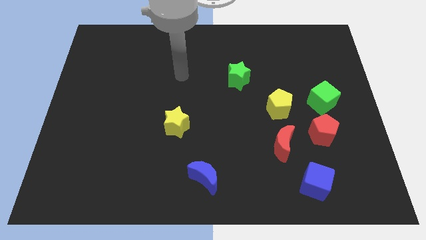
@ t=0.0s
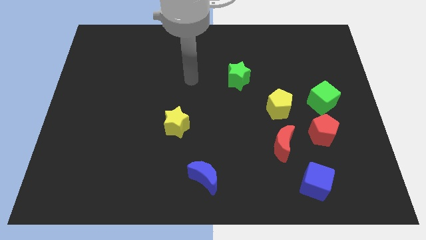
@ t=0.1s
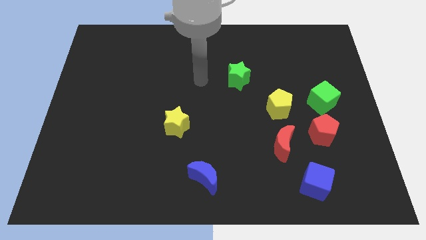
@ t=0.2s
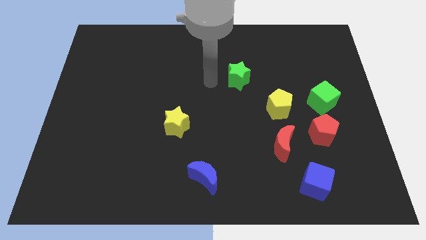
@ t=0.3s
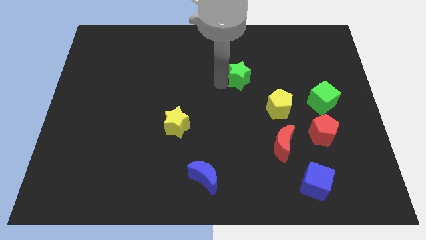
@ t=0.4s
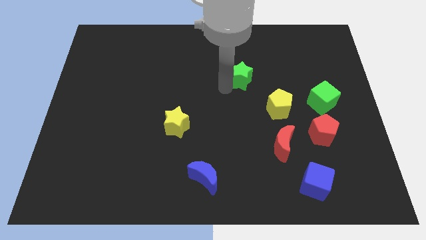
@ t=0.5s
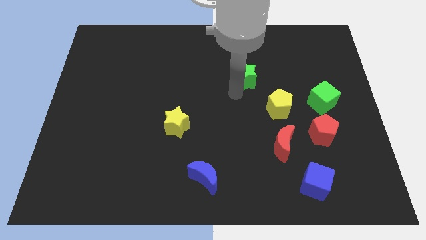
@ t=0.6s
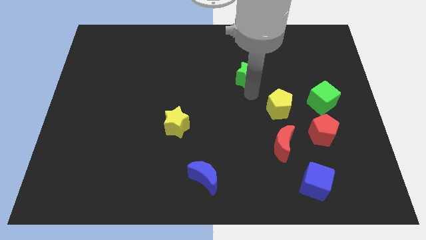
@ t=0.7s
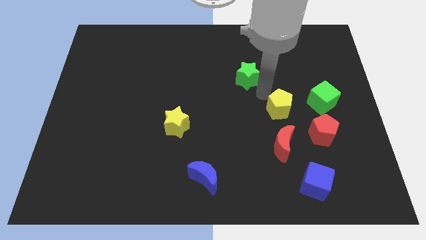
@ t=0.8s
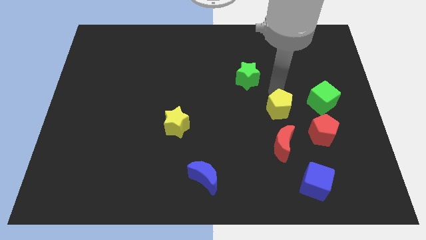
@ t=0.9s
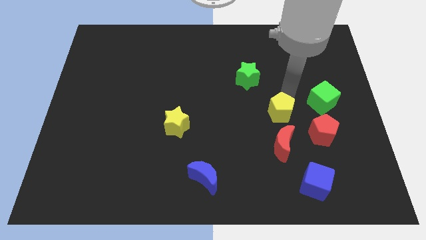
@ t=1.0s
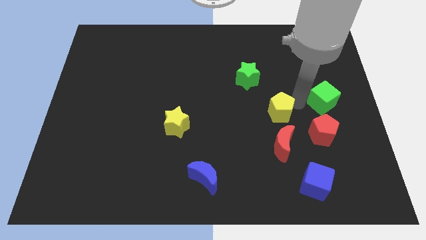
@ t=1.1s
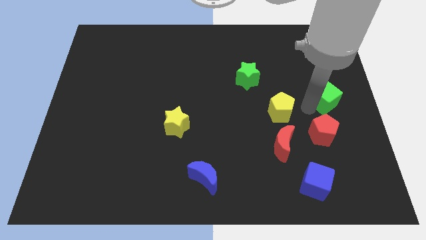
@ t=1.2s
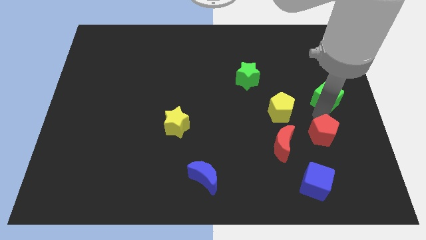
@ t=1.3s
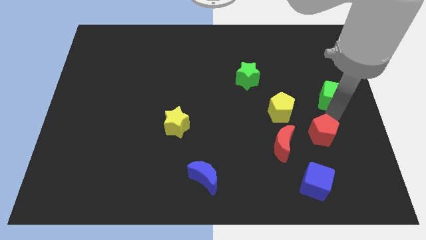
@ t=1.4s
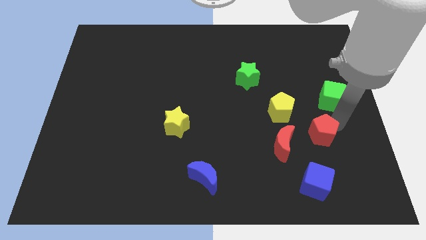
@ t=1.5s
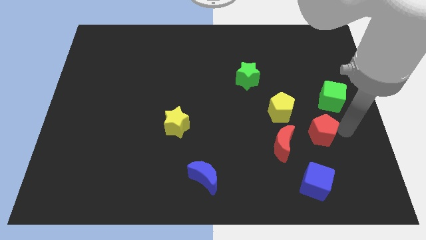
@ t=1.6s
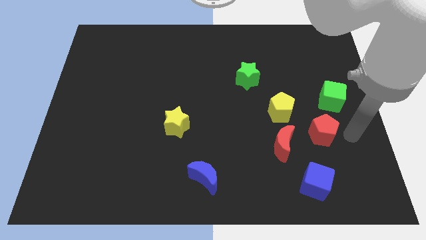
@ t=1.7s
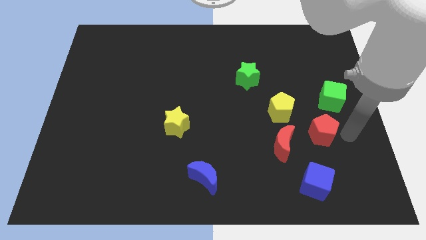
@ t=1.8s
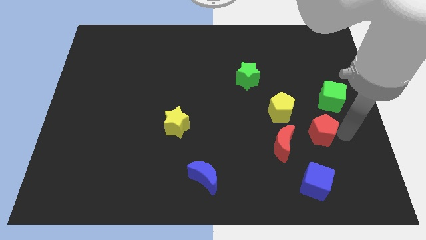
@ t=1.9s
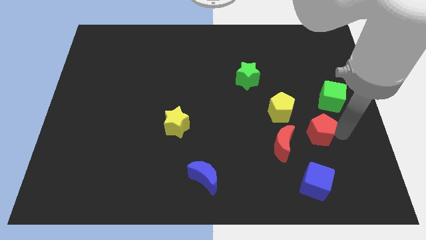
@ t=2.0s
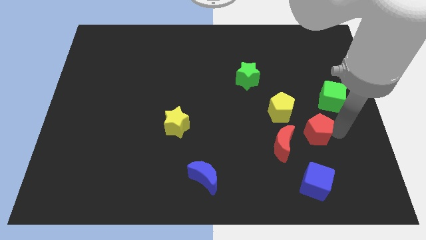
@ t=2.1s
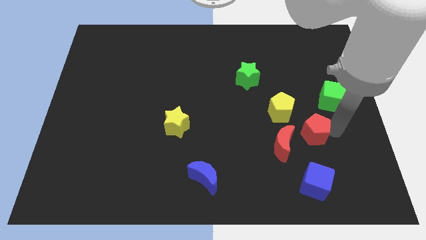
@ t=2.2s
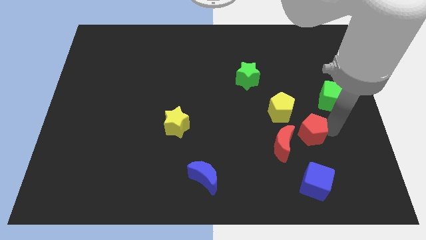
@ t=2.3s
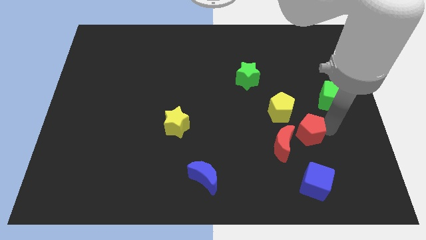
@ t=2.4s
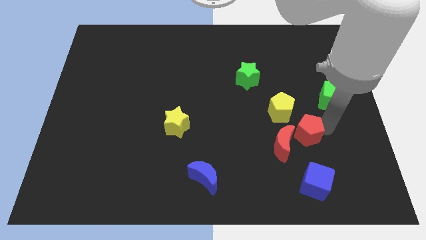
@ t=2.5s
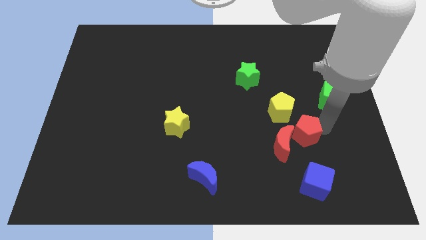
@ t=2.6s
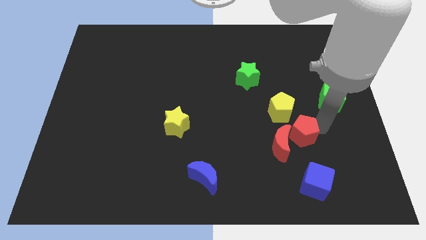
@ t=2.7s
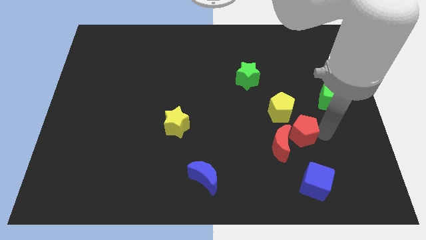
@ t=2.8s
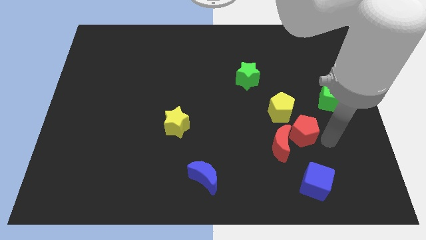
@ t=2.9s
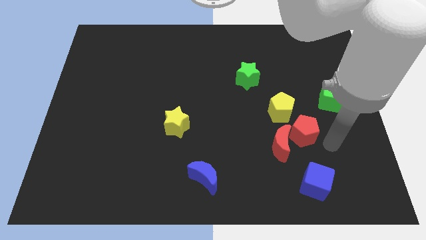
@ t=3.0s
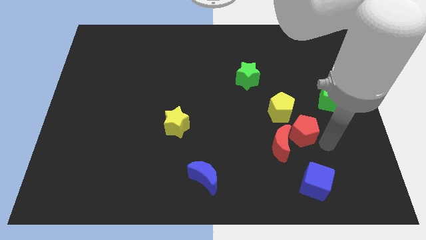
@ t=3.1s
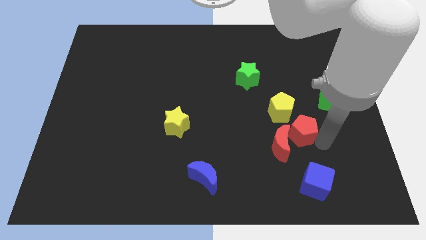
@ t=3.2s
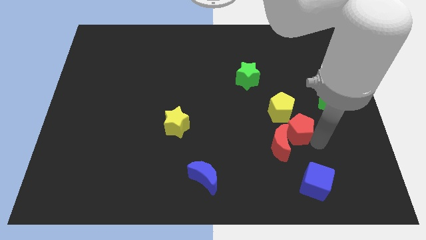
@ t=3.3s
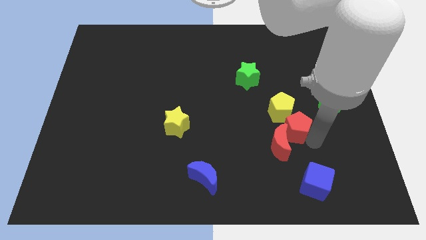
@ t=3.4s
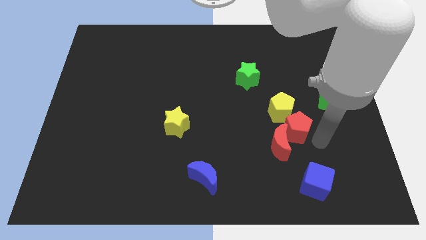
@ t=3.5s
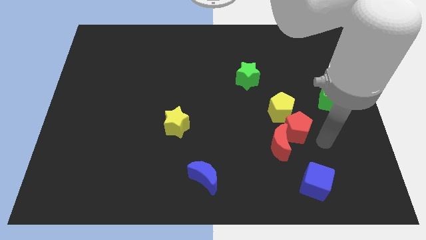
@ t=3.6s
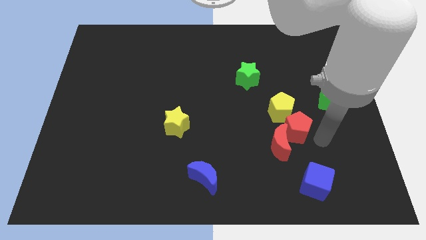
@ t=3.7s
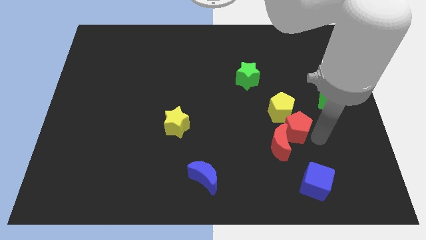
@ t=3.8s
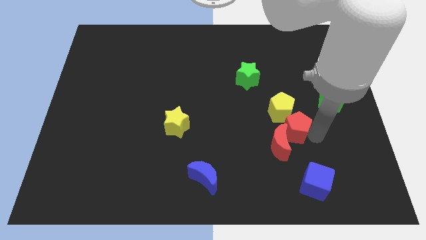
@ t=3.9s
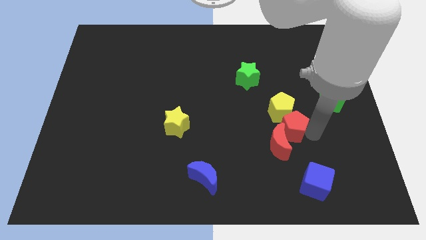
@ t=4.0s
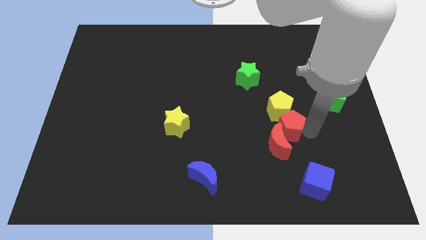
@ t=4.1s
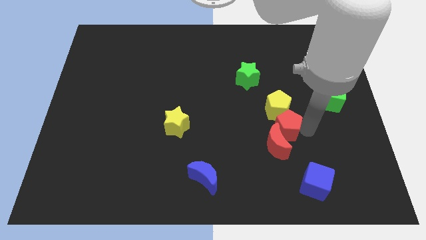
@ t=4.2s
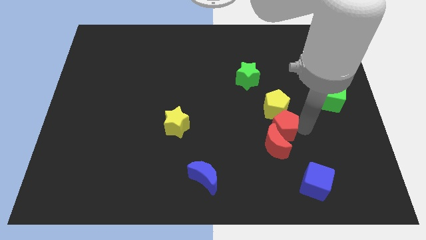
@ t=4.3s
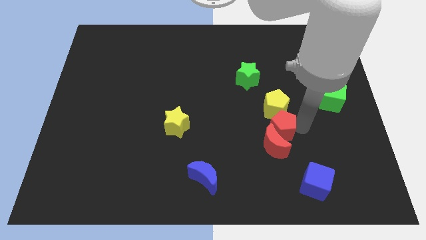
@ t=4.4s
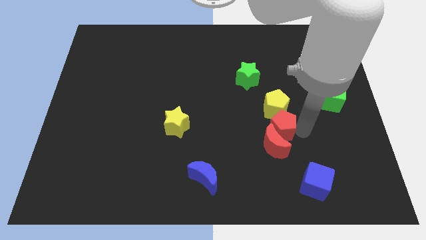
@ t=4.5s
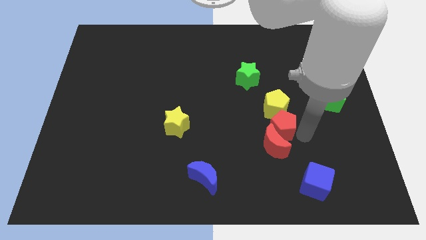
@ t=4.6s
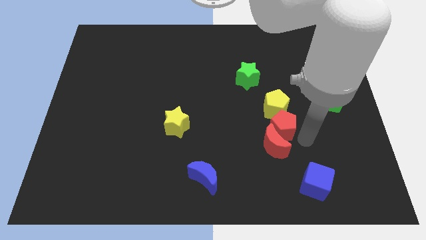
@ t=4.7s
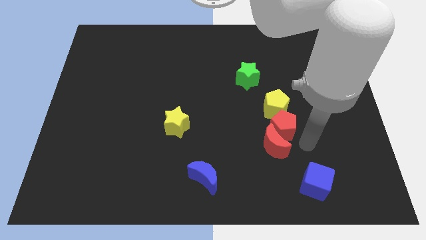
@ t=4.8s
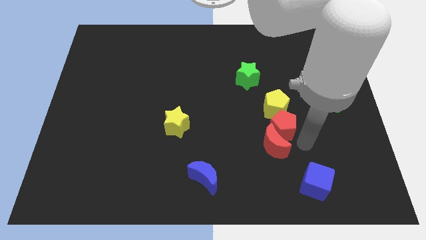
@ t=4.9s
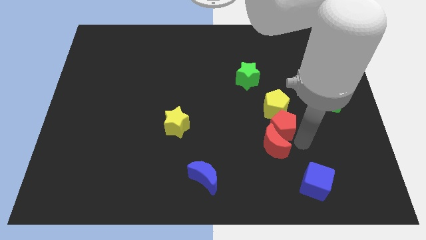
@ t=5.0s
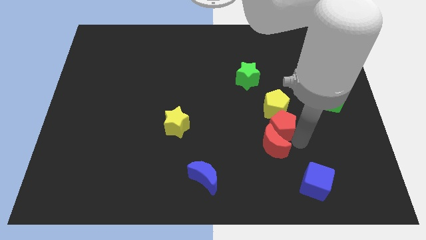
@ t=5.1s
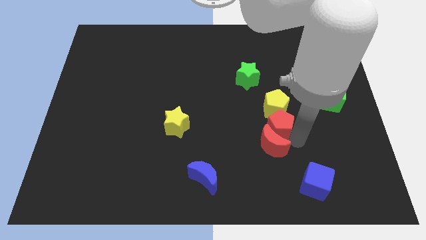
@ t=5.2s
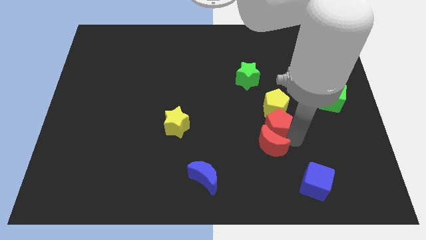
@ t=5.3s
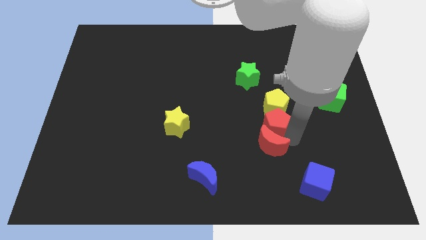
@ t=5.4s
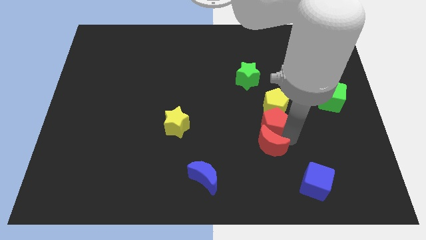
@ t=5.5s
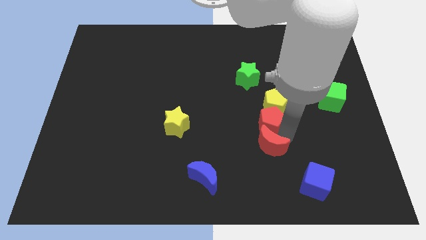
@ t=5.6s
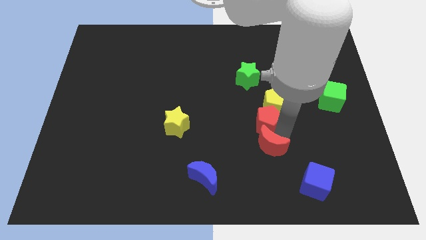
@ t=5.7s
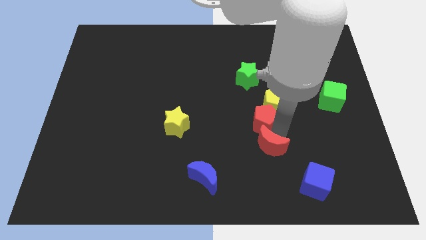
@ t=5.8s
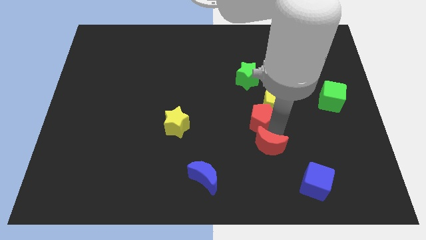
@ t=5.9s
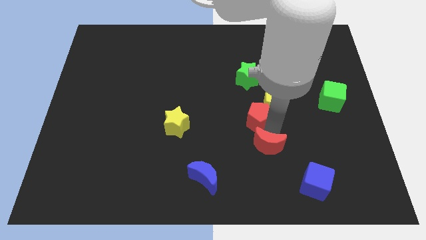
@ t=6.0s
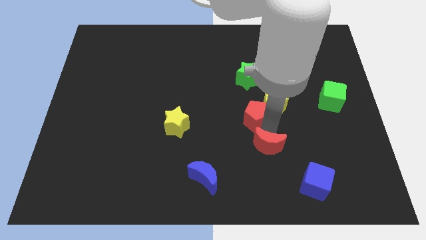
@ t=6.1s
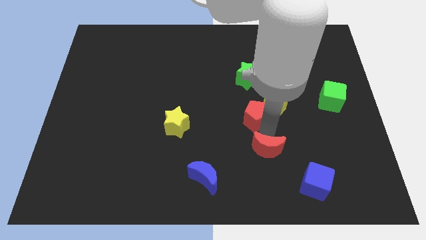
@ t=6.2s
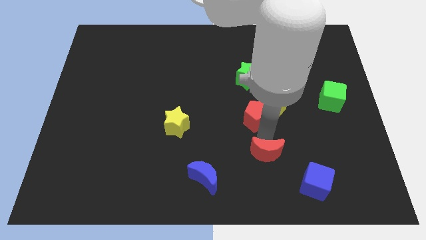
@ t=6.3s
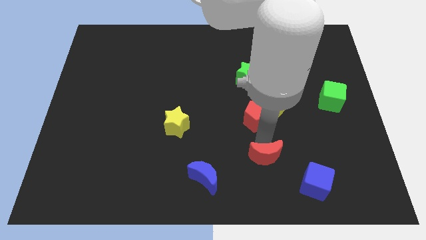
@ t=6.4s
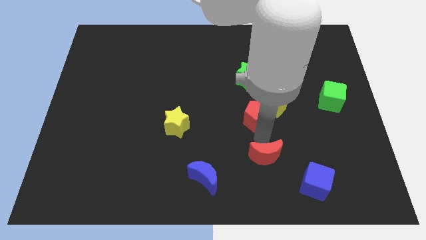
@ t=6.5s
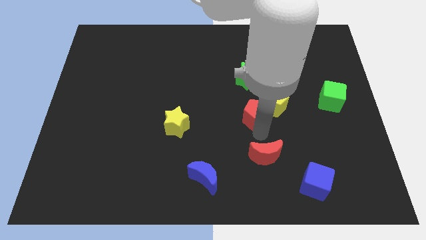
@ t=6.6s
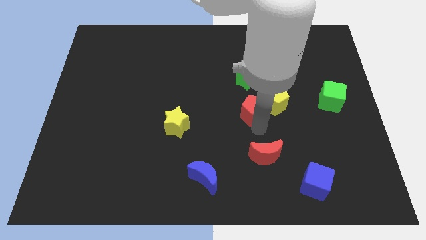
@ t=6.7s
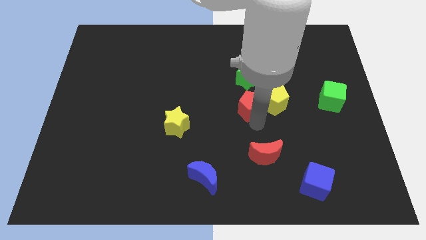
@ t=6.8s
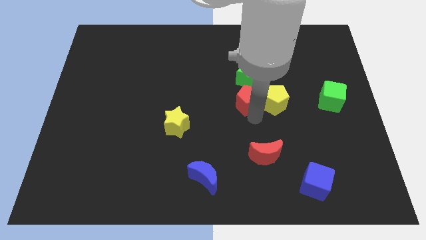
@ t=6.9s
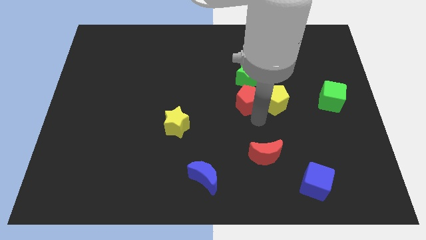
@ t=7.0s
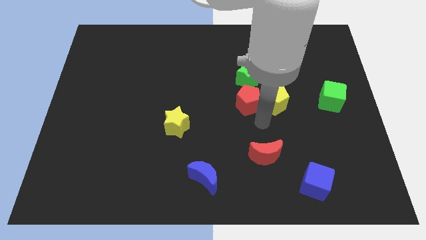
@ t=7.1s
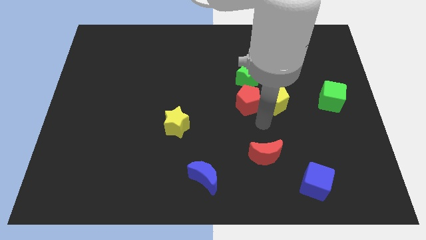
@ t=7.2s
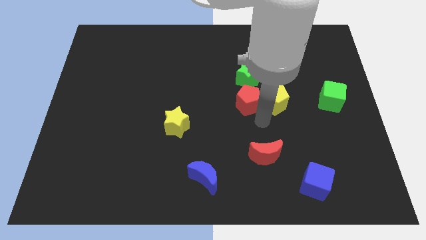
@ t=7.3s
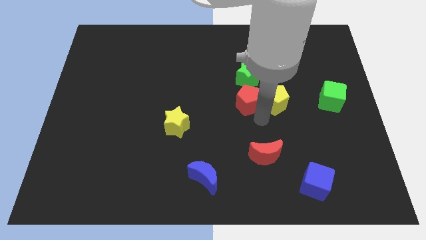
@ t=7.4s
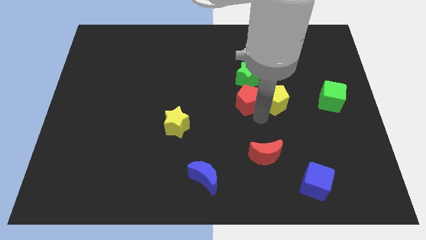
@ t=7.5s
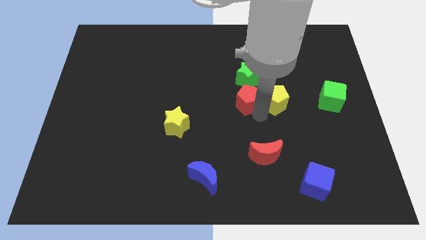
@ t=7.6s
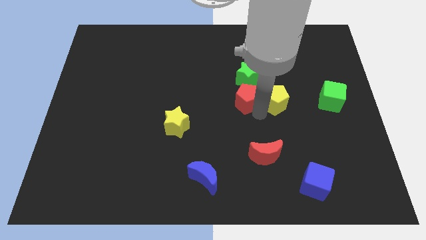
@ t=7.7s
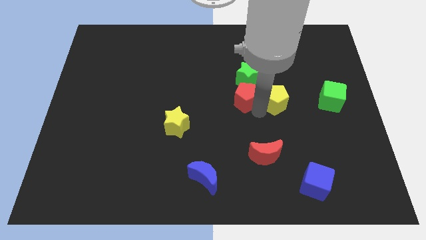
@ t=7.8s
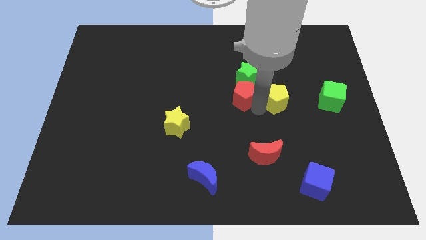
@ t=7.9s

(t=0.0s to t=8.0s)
slide the red pentagon next to the green star
